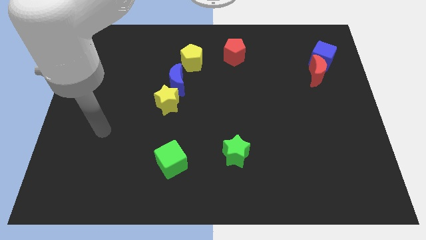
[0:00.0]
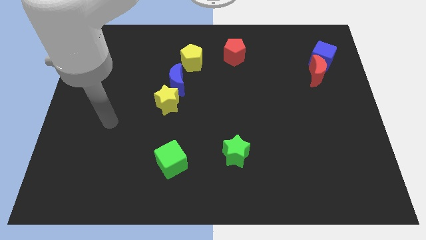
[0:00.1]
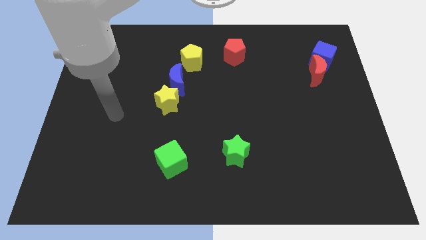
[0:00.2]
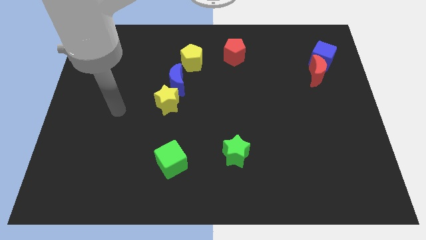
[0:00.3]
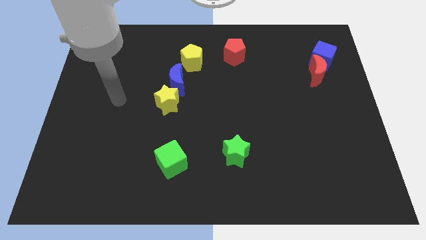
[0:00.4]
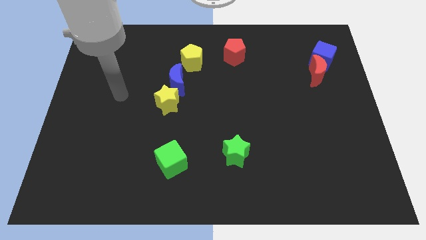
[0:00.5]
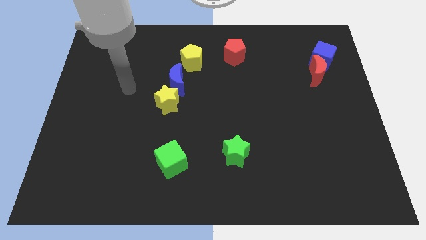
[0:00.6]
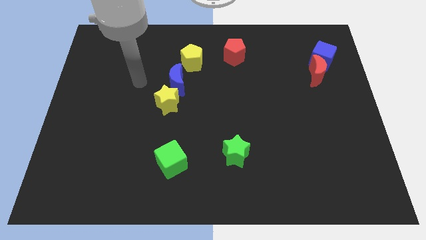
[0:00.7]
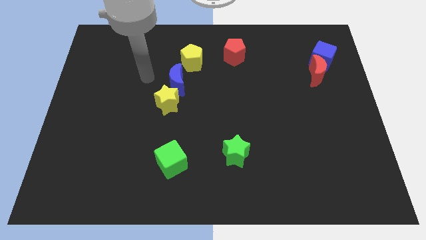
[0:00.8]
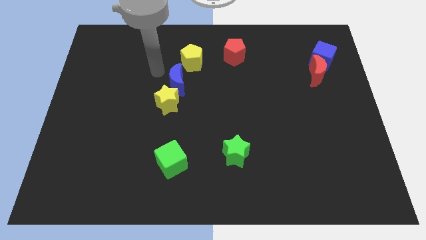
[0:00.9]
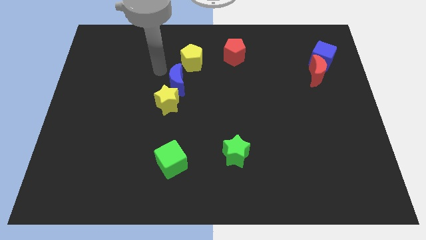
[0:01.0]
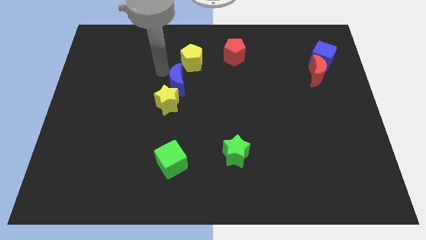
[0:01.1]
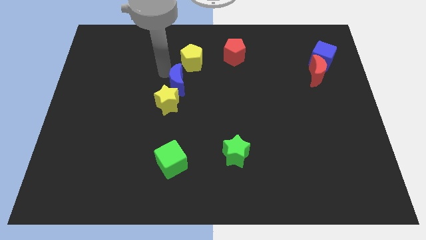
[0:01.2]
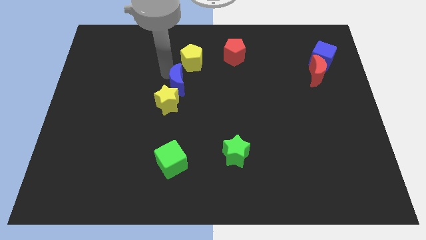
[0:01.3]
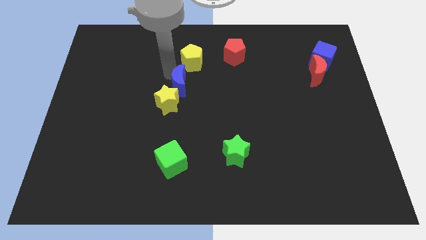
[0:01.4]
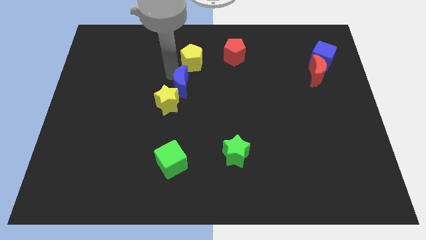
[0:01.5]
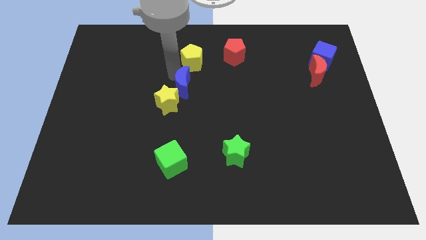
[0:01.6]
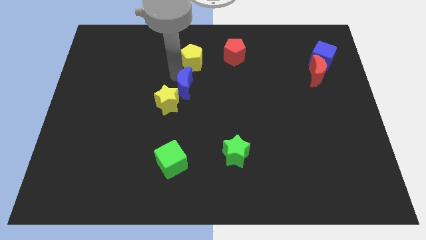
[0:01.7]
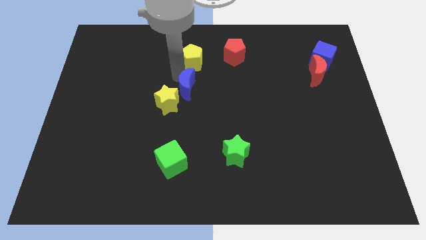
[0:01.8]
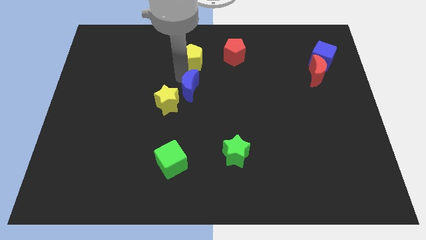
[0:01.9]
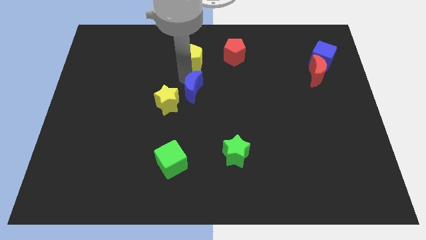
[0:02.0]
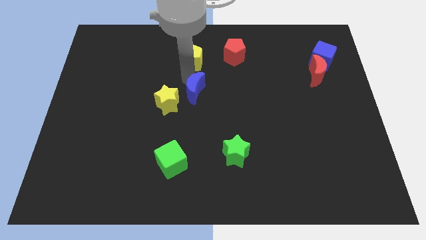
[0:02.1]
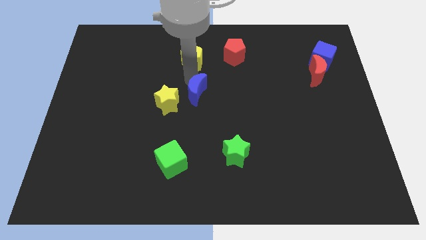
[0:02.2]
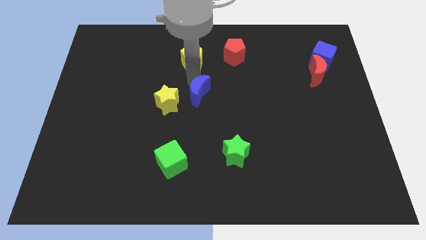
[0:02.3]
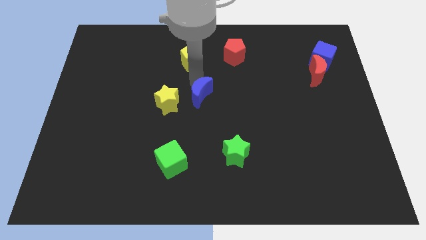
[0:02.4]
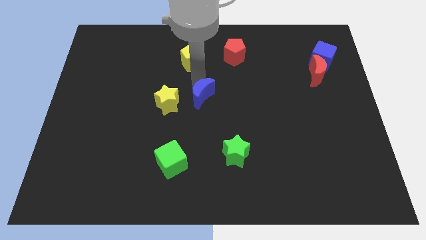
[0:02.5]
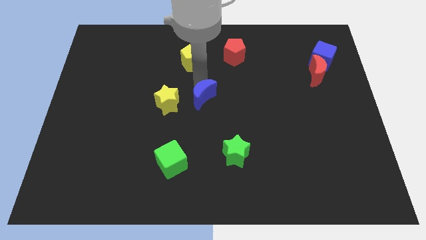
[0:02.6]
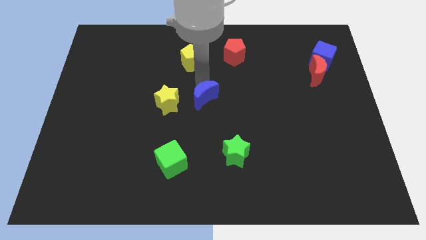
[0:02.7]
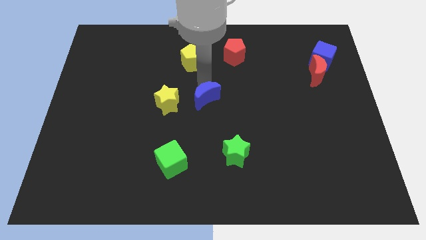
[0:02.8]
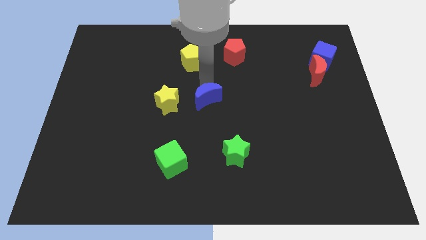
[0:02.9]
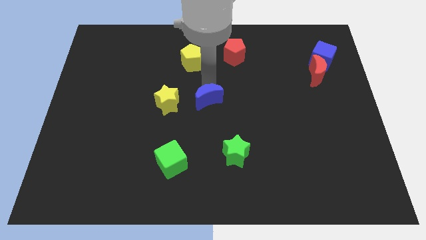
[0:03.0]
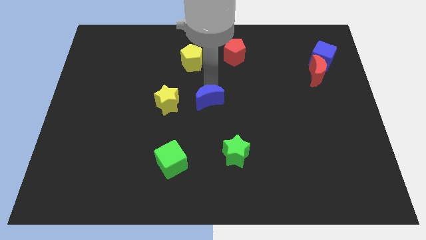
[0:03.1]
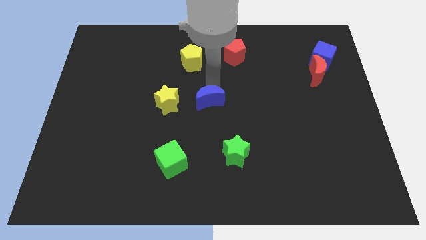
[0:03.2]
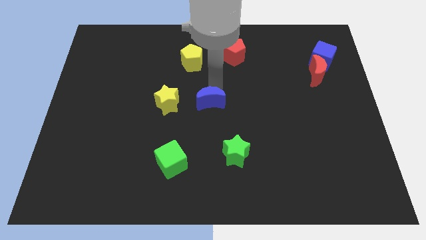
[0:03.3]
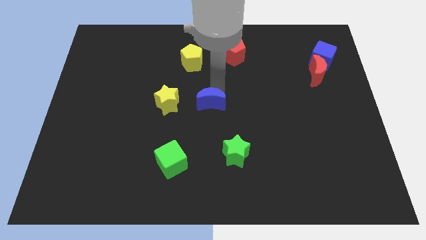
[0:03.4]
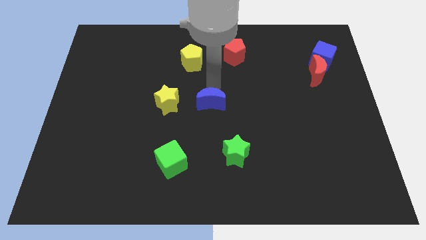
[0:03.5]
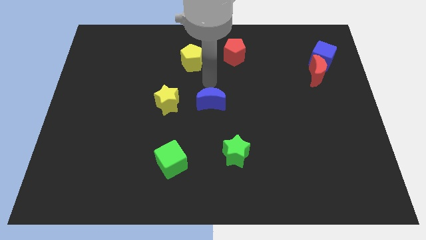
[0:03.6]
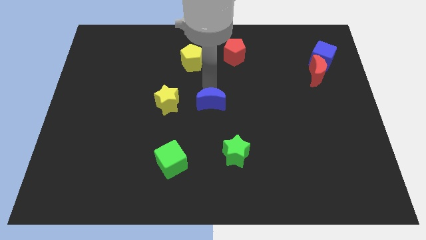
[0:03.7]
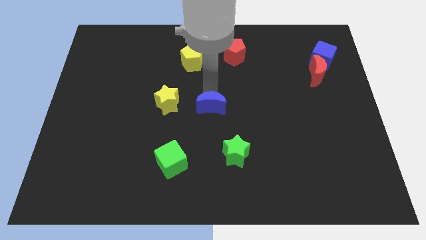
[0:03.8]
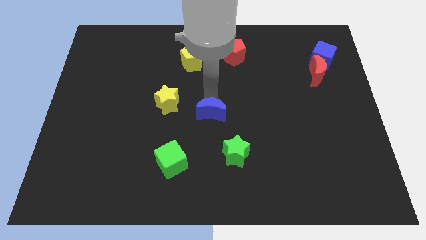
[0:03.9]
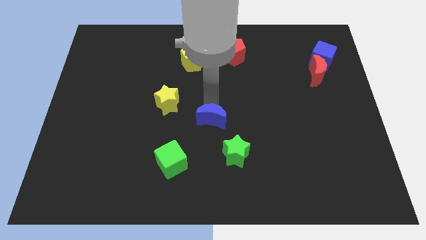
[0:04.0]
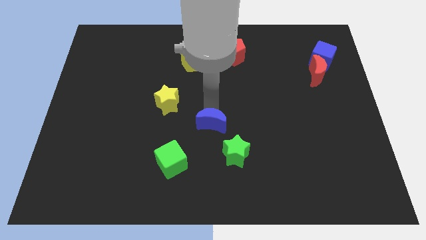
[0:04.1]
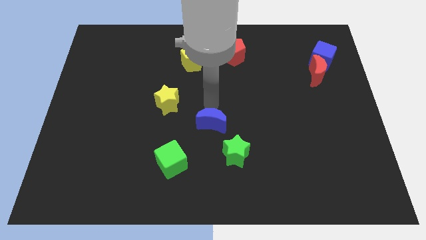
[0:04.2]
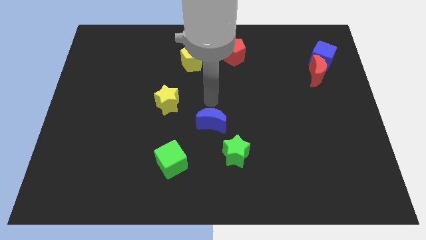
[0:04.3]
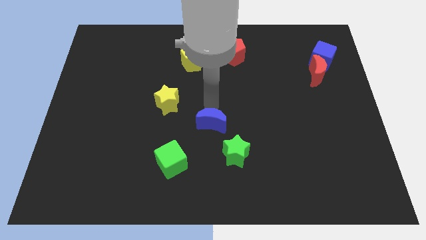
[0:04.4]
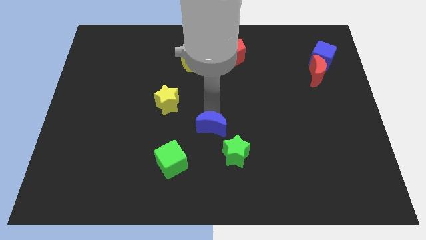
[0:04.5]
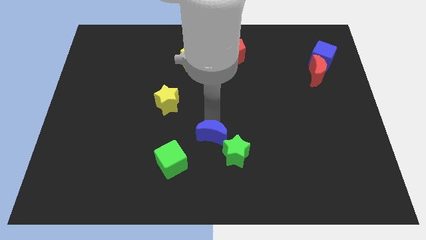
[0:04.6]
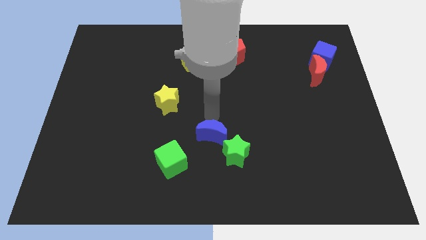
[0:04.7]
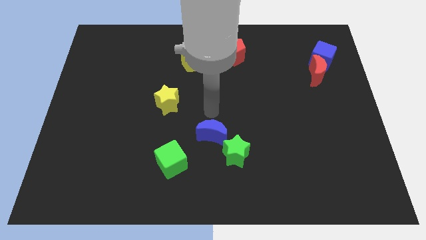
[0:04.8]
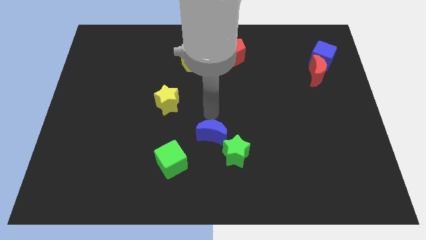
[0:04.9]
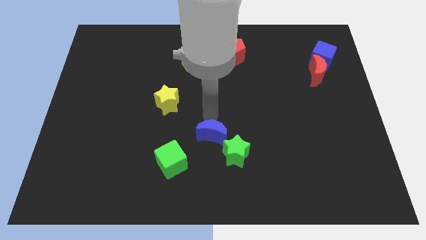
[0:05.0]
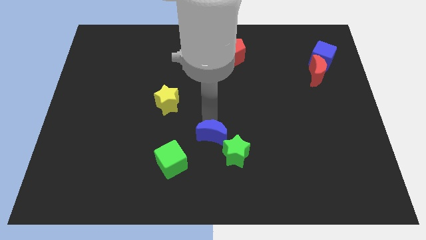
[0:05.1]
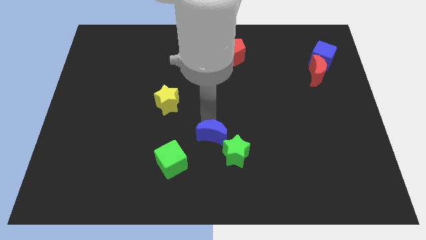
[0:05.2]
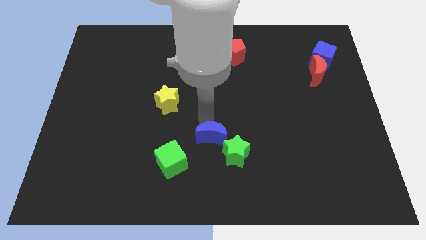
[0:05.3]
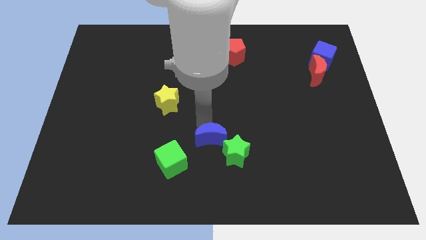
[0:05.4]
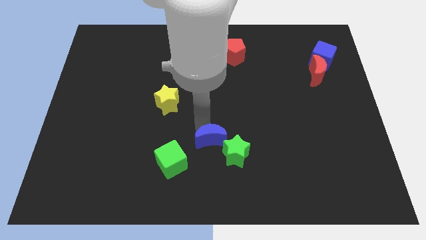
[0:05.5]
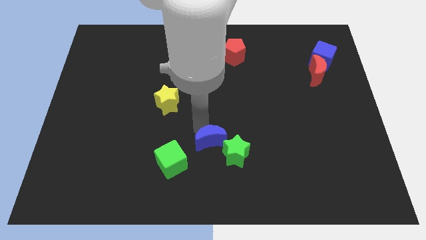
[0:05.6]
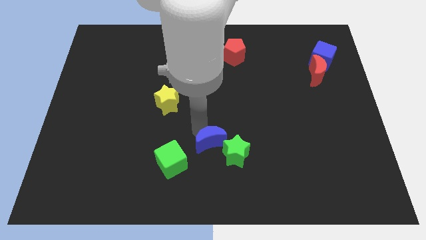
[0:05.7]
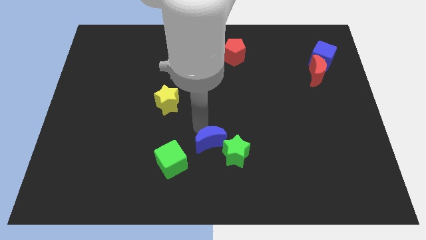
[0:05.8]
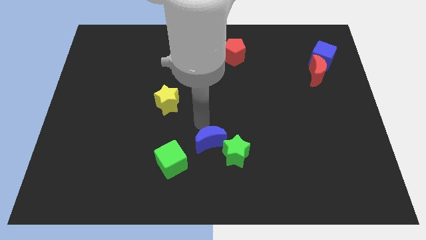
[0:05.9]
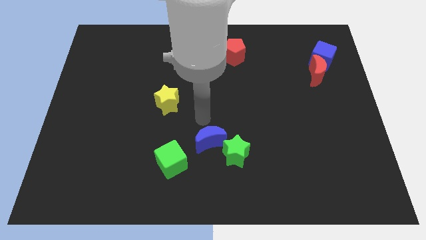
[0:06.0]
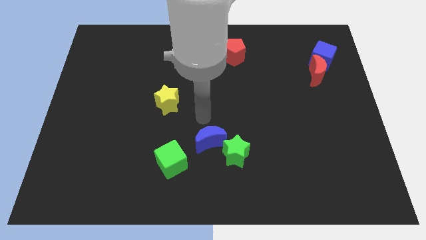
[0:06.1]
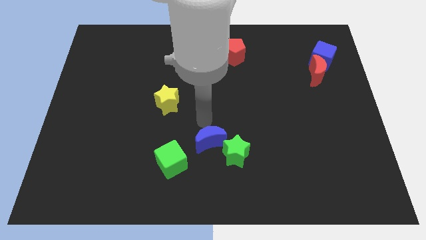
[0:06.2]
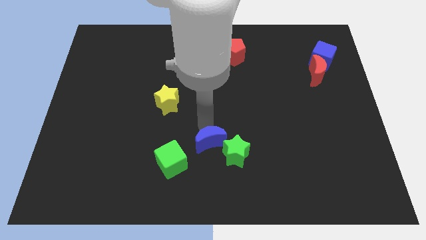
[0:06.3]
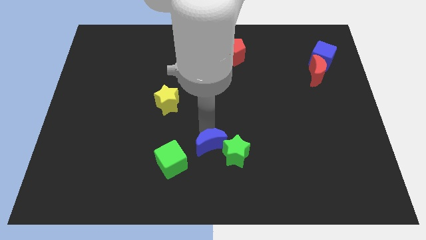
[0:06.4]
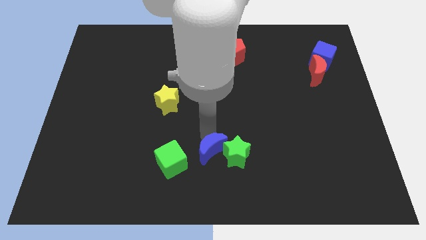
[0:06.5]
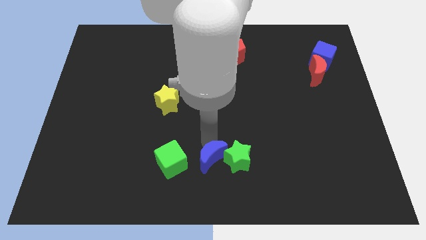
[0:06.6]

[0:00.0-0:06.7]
move the blue moon to the bottom side

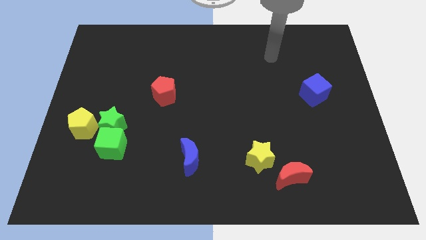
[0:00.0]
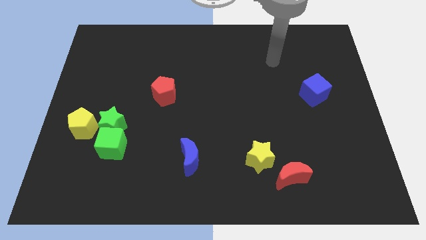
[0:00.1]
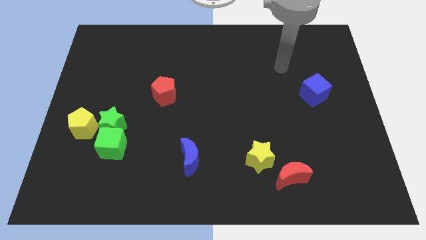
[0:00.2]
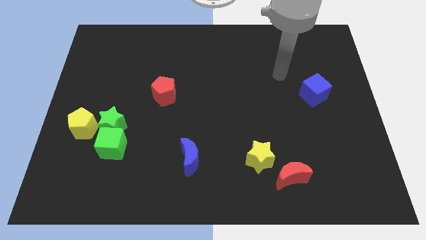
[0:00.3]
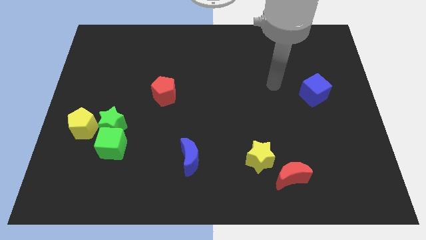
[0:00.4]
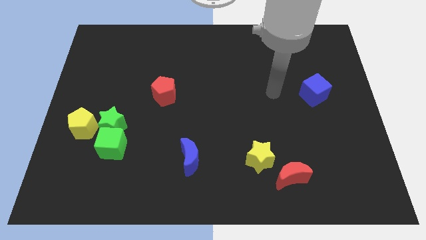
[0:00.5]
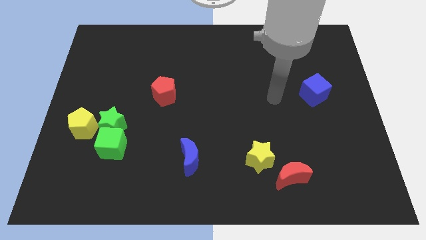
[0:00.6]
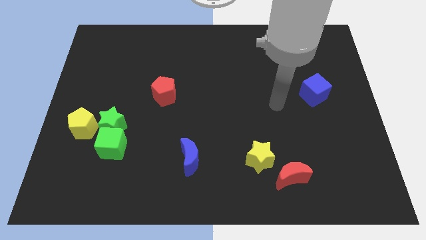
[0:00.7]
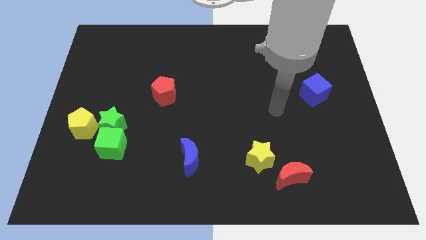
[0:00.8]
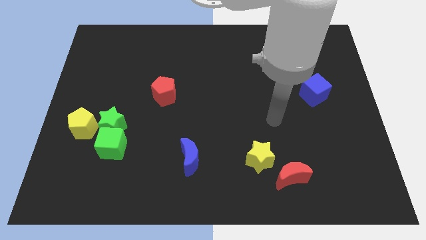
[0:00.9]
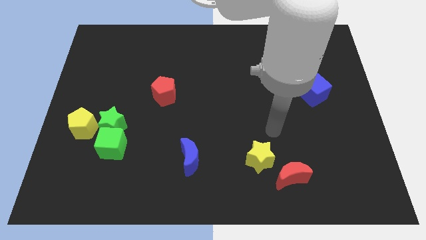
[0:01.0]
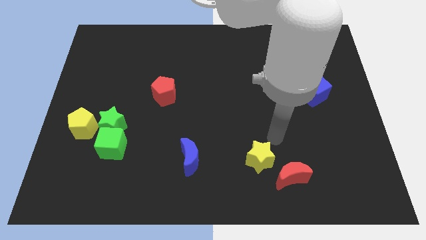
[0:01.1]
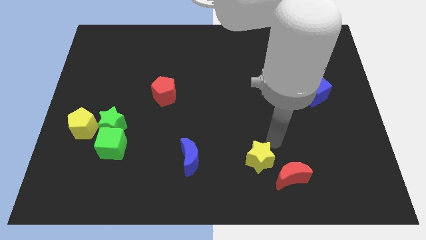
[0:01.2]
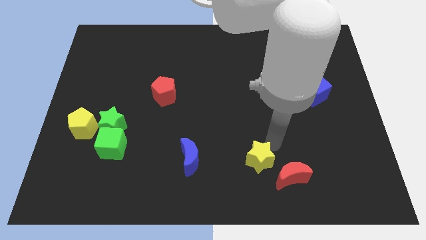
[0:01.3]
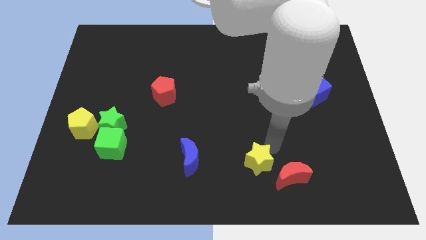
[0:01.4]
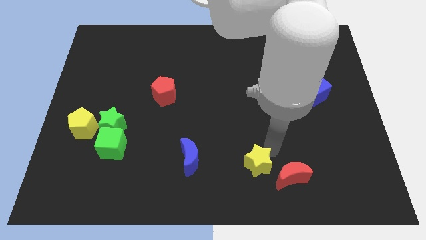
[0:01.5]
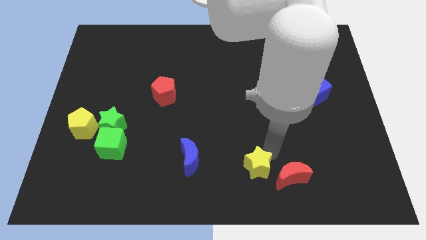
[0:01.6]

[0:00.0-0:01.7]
slide the yellow star to the bottom
